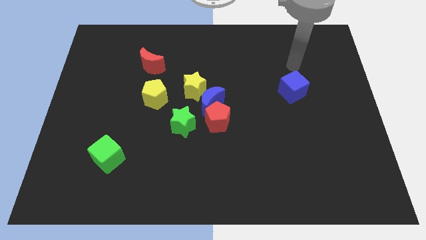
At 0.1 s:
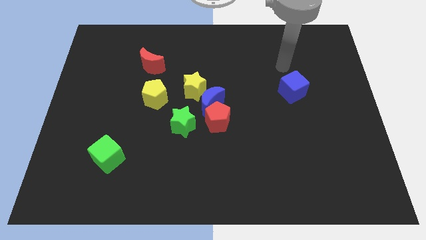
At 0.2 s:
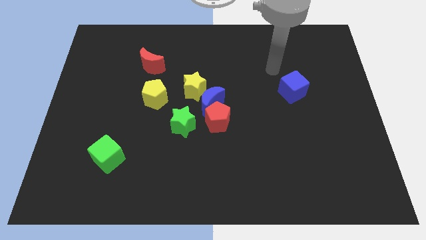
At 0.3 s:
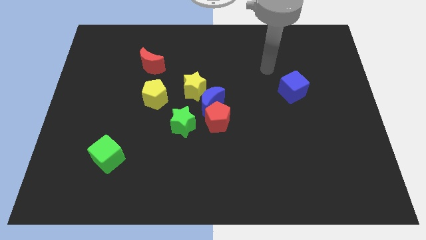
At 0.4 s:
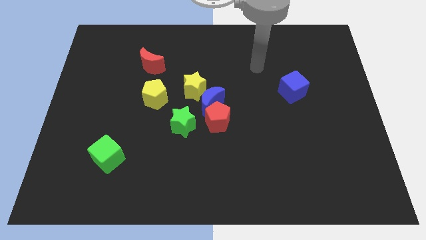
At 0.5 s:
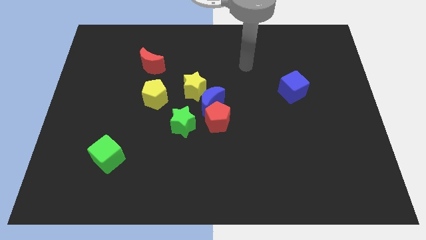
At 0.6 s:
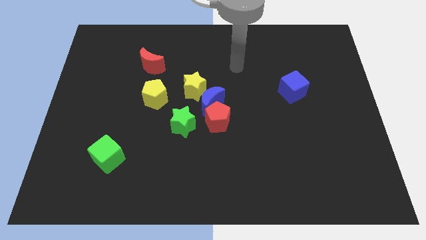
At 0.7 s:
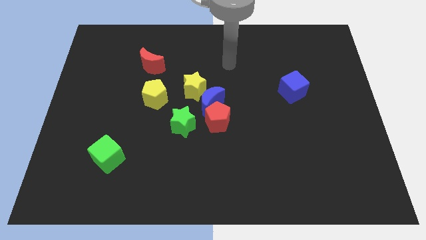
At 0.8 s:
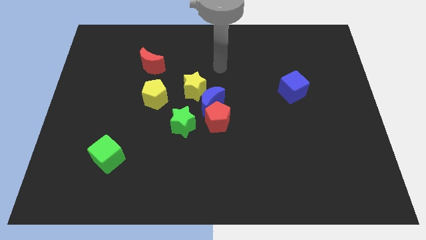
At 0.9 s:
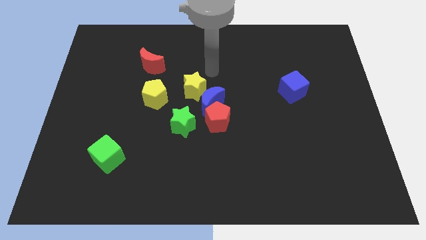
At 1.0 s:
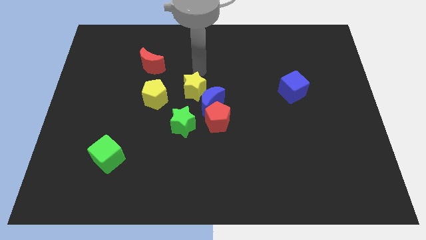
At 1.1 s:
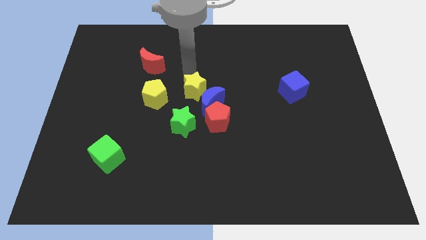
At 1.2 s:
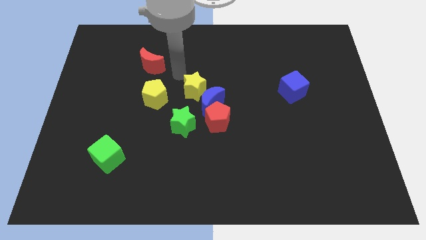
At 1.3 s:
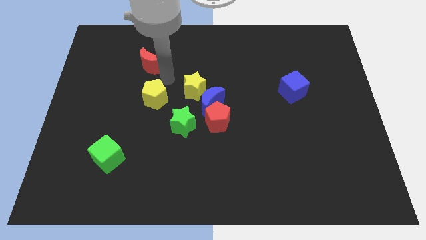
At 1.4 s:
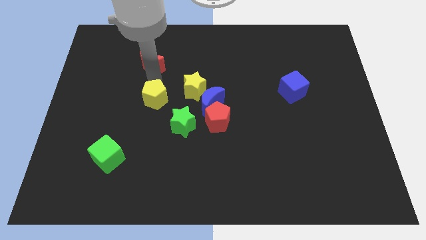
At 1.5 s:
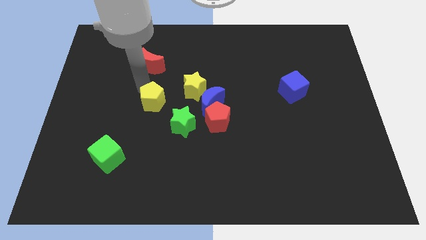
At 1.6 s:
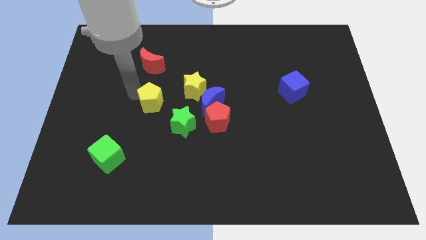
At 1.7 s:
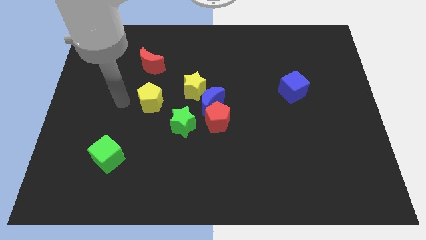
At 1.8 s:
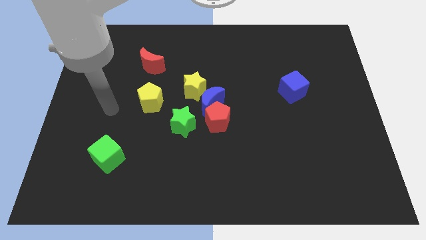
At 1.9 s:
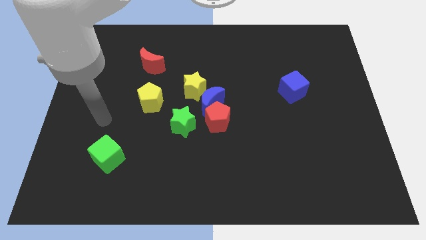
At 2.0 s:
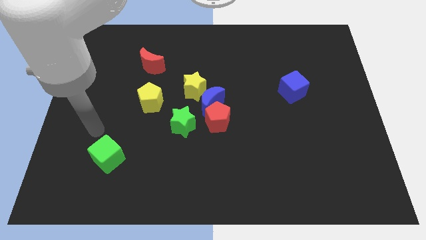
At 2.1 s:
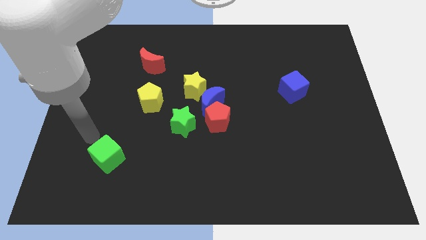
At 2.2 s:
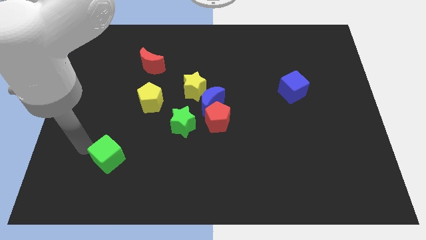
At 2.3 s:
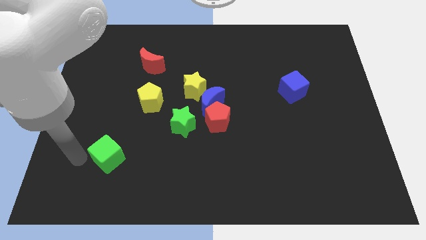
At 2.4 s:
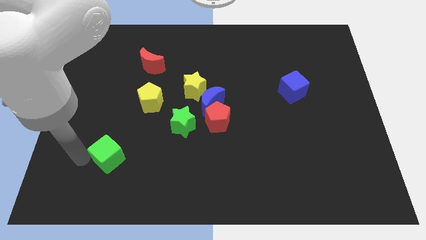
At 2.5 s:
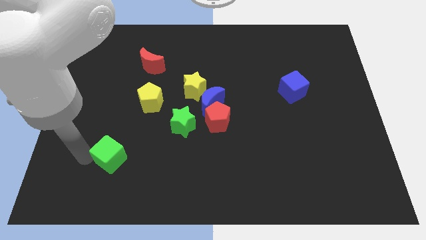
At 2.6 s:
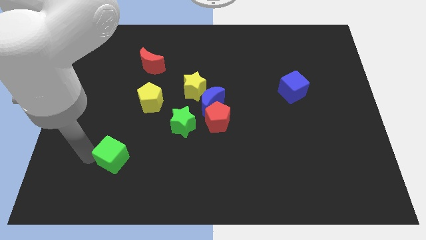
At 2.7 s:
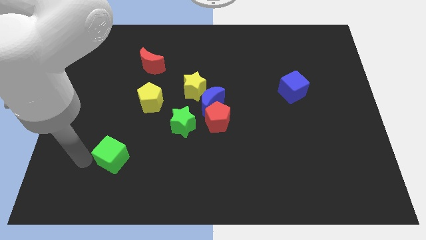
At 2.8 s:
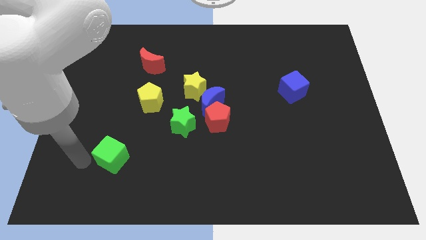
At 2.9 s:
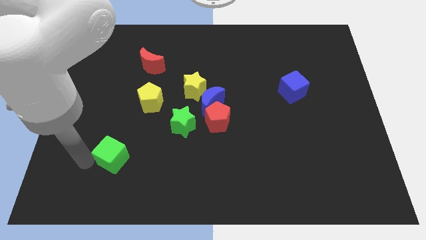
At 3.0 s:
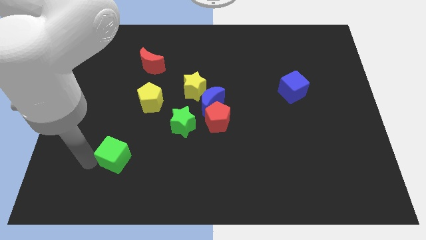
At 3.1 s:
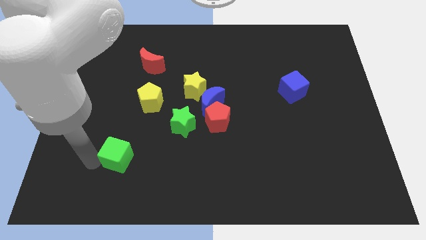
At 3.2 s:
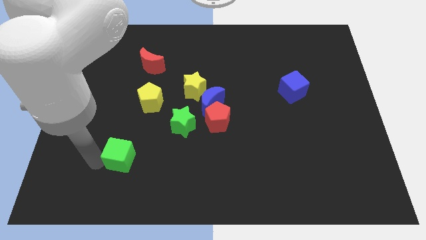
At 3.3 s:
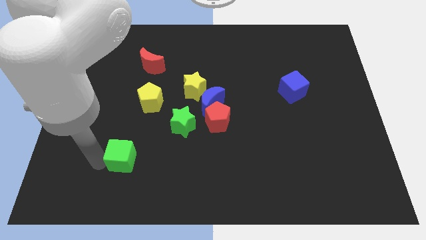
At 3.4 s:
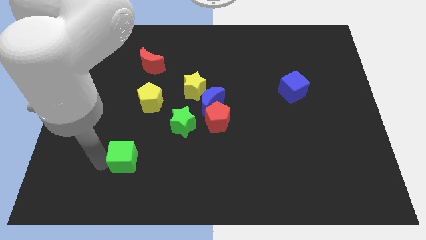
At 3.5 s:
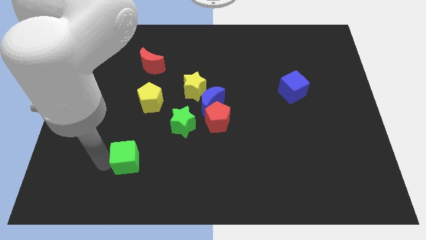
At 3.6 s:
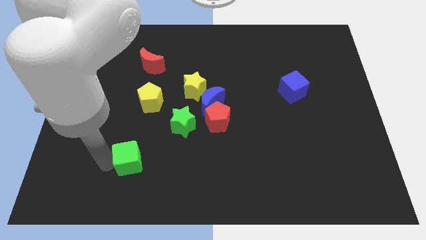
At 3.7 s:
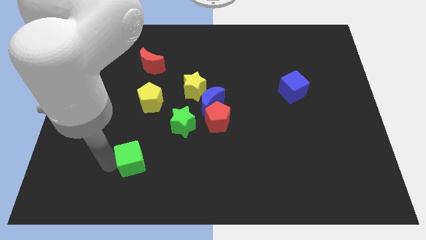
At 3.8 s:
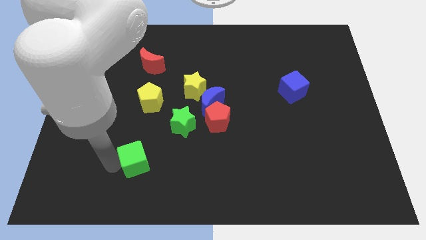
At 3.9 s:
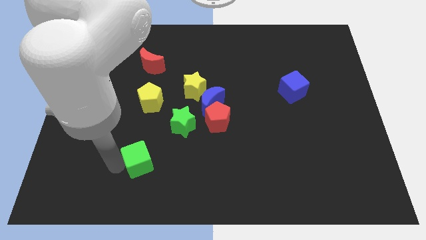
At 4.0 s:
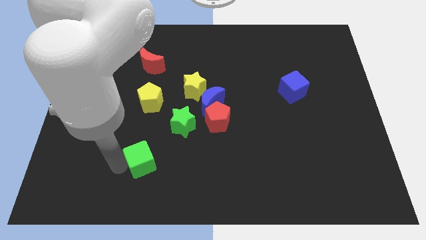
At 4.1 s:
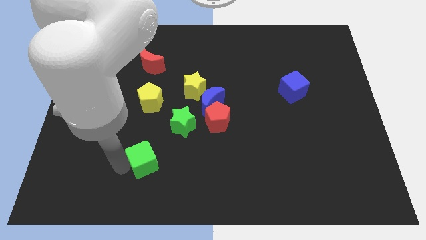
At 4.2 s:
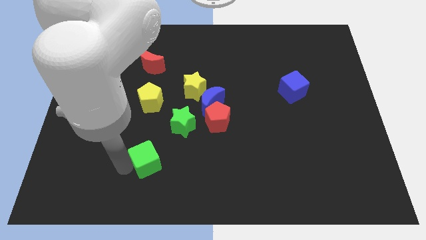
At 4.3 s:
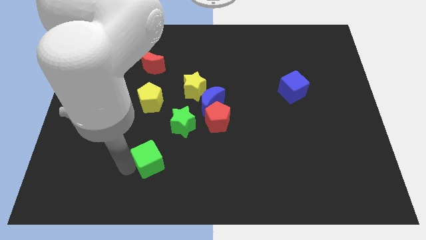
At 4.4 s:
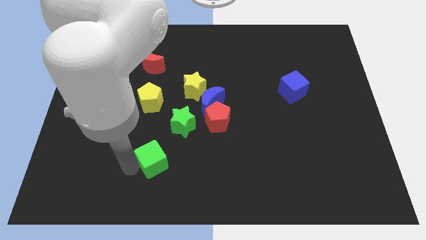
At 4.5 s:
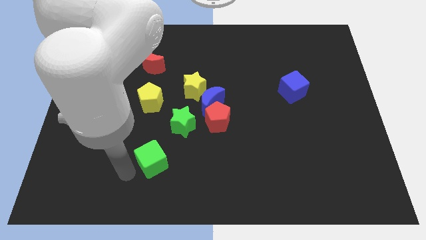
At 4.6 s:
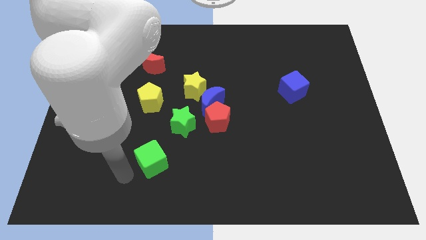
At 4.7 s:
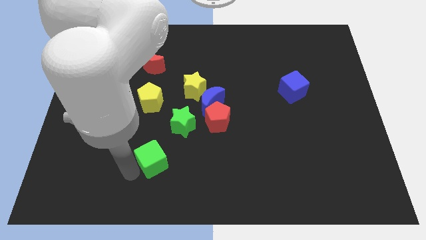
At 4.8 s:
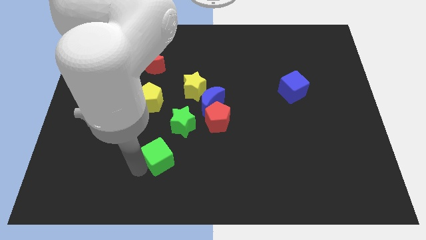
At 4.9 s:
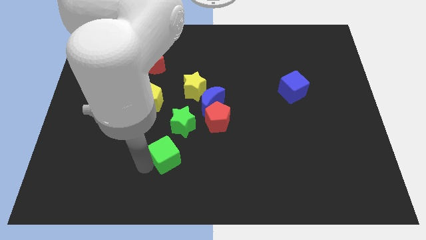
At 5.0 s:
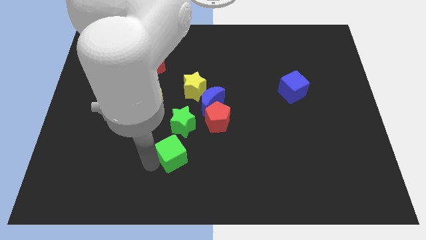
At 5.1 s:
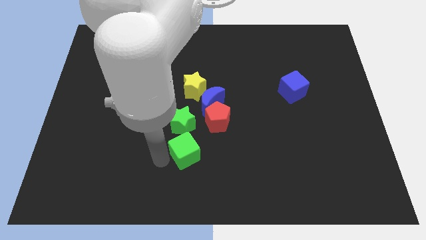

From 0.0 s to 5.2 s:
put the green cube to the bottom right of the green star
